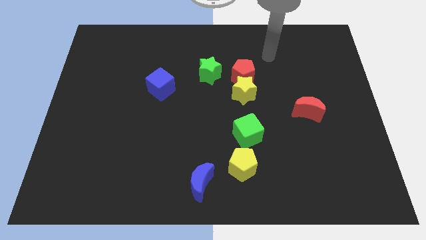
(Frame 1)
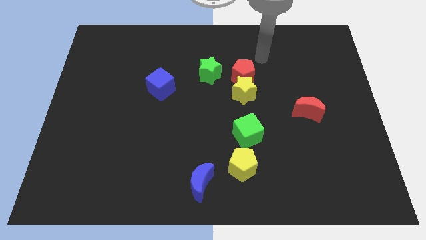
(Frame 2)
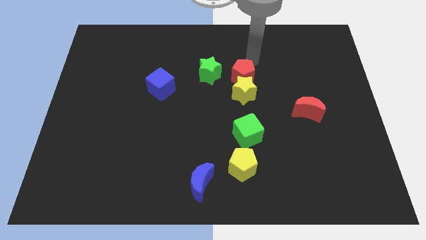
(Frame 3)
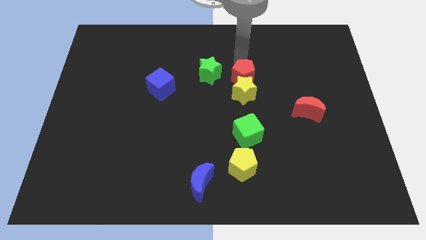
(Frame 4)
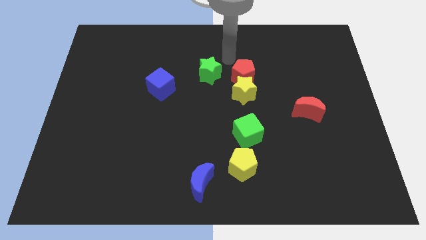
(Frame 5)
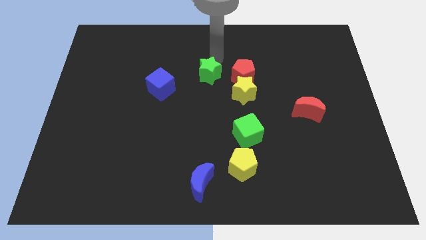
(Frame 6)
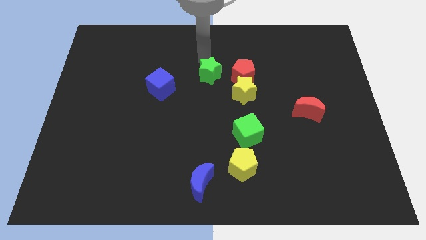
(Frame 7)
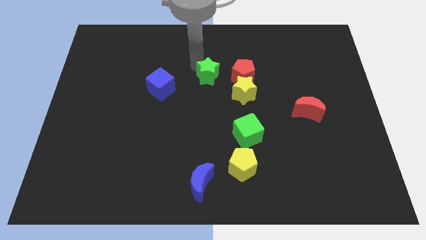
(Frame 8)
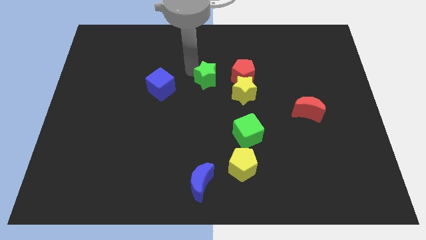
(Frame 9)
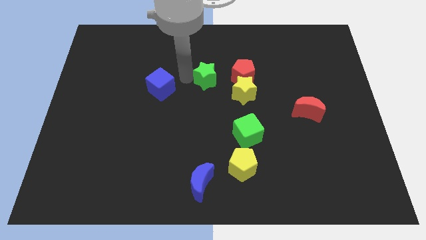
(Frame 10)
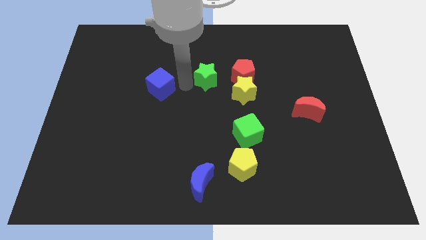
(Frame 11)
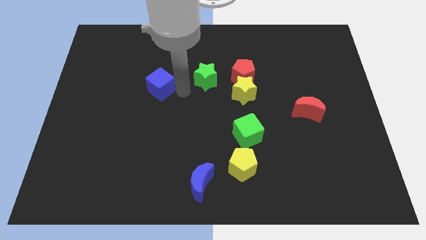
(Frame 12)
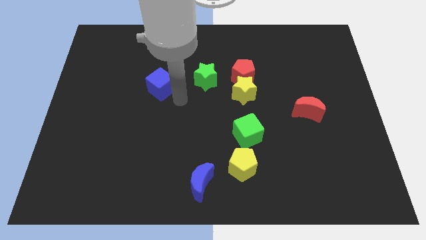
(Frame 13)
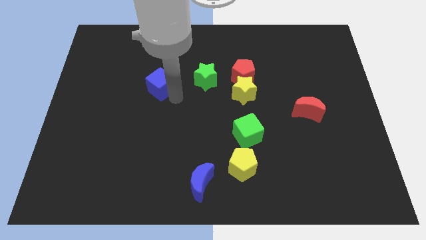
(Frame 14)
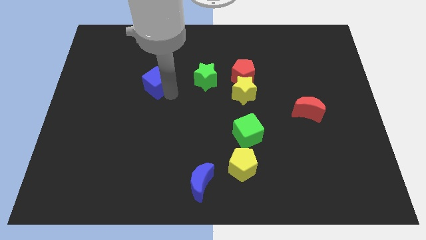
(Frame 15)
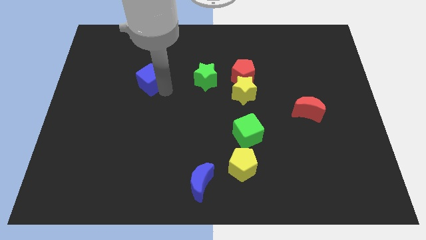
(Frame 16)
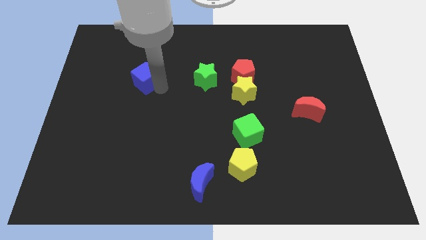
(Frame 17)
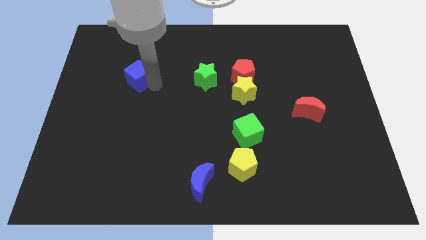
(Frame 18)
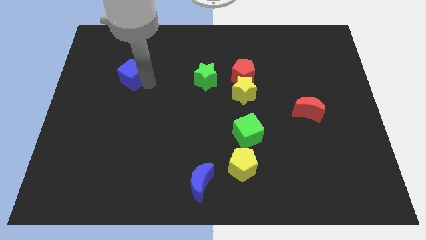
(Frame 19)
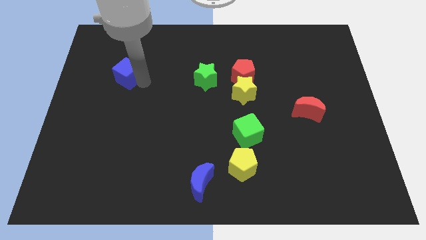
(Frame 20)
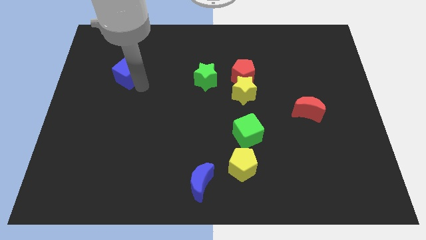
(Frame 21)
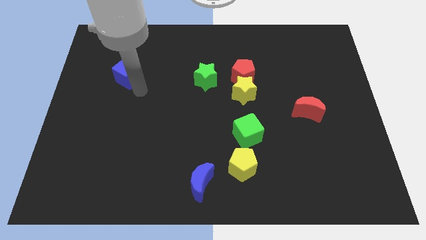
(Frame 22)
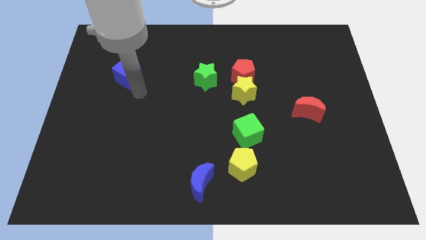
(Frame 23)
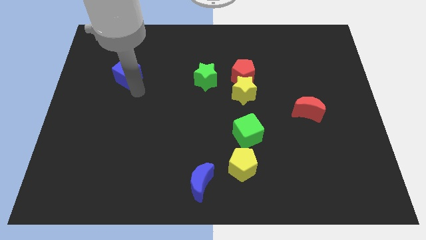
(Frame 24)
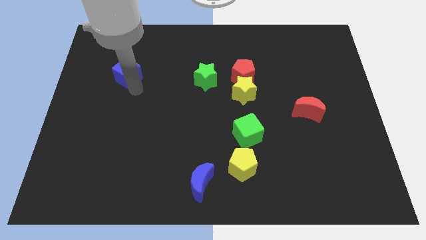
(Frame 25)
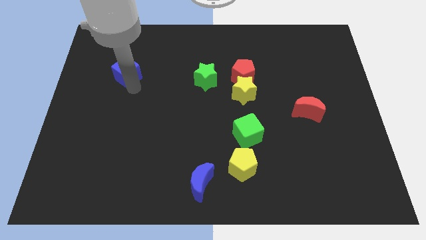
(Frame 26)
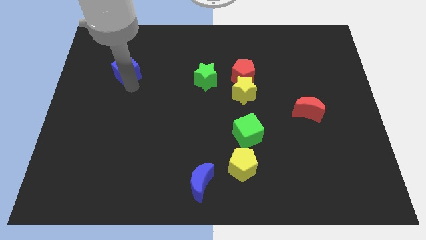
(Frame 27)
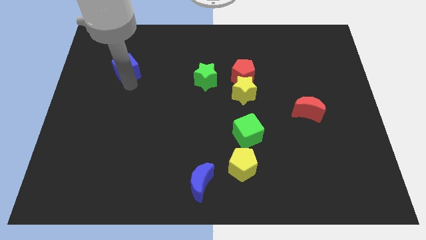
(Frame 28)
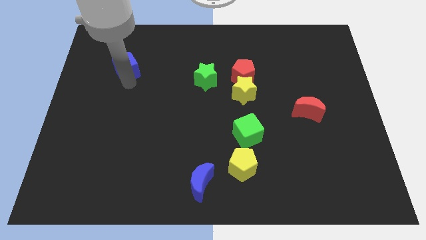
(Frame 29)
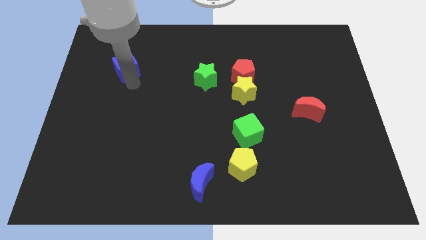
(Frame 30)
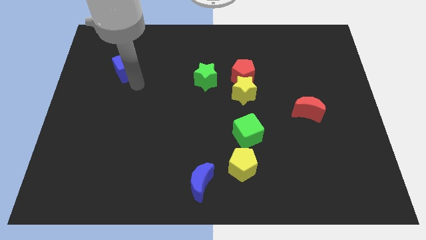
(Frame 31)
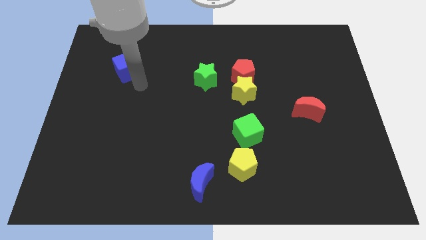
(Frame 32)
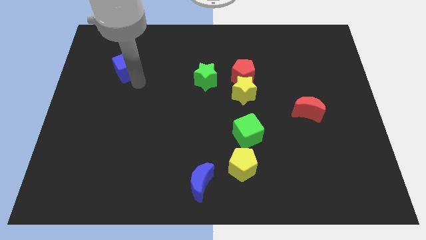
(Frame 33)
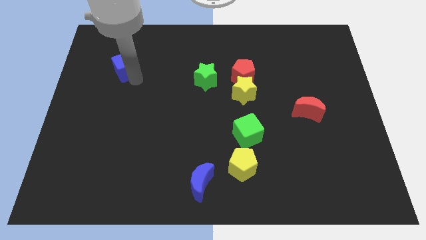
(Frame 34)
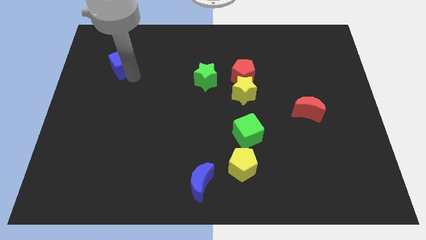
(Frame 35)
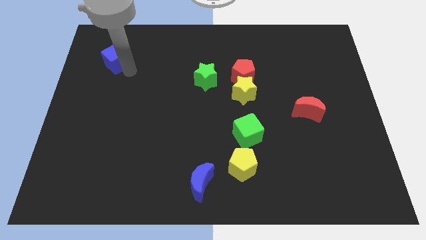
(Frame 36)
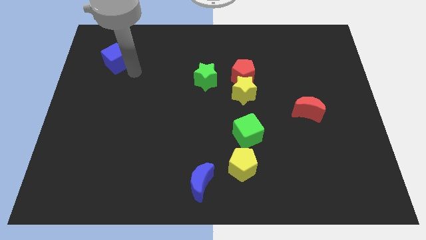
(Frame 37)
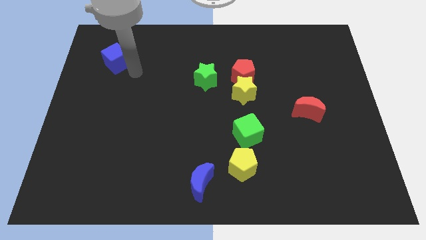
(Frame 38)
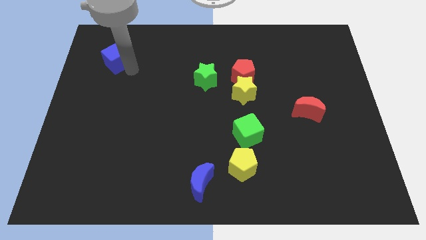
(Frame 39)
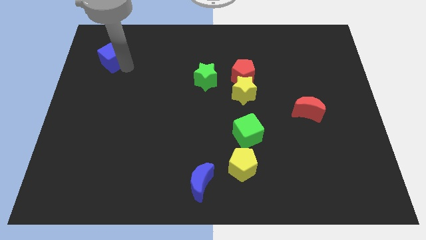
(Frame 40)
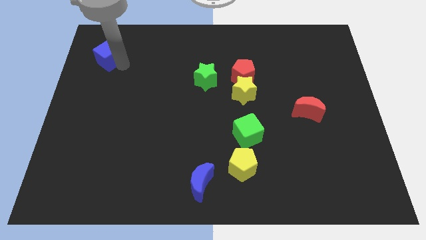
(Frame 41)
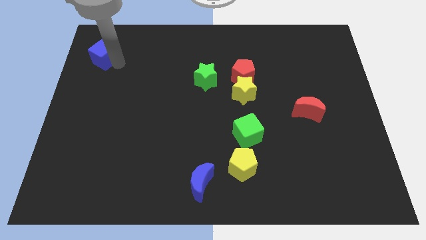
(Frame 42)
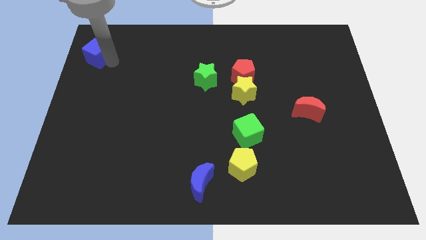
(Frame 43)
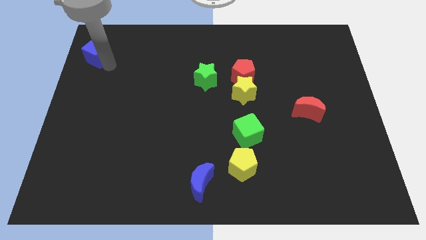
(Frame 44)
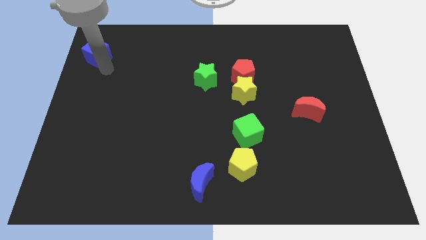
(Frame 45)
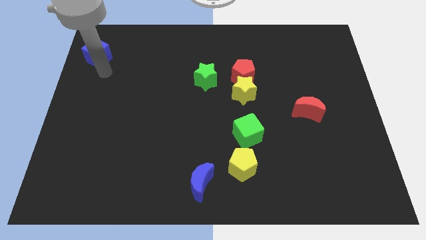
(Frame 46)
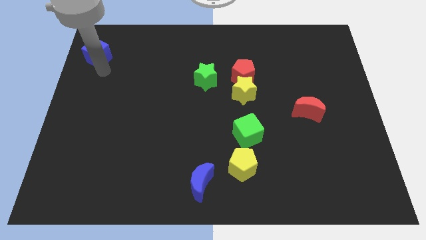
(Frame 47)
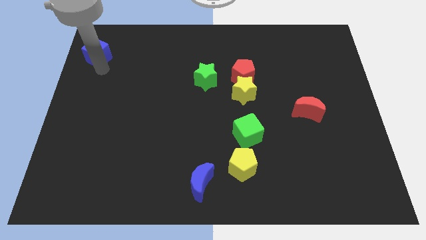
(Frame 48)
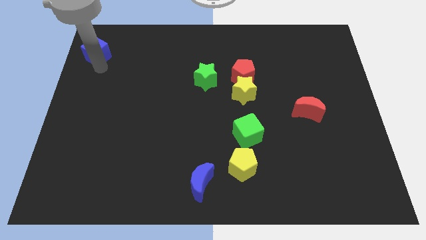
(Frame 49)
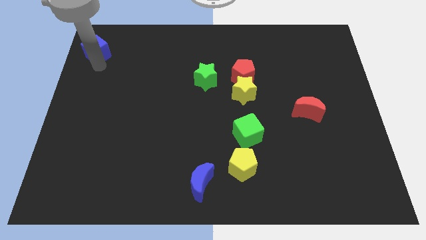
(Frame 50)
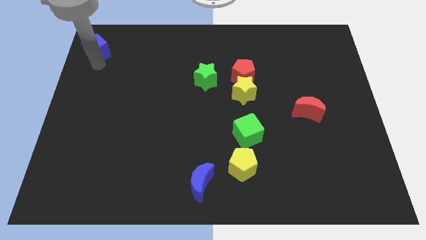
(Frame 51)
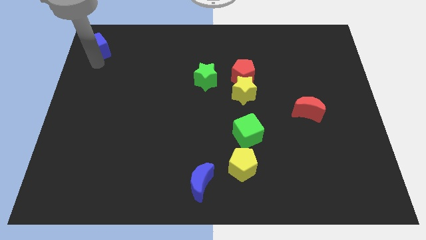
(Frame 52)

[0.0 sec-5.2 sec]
slide the blue cube to the top left corner

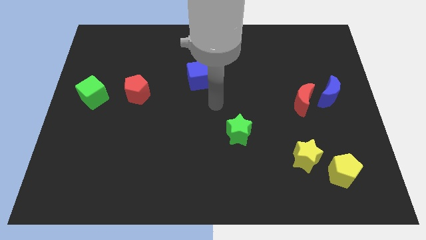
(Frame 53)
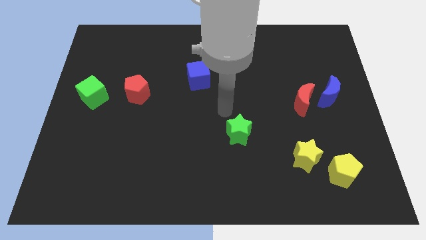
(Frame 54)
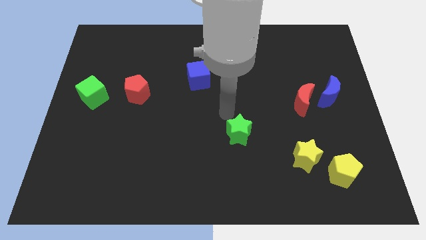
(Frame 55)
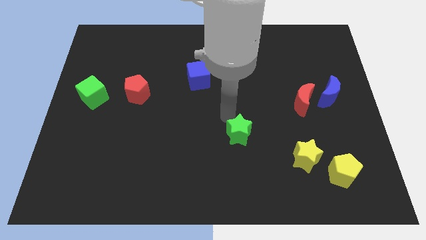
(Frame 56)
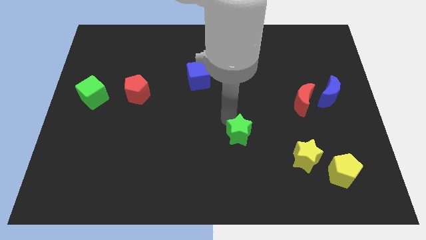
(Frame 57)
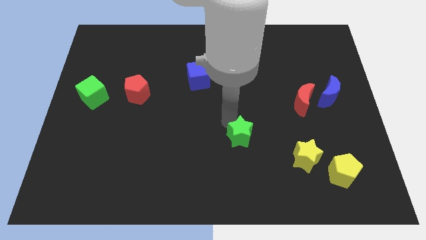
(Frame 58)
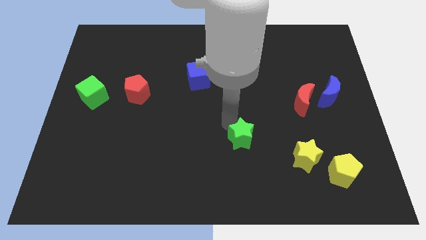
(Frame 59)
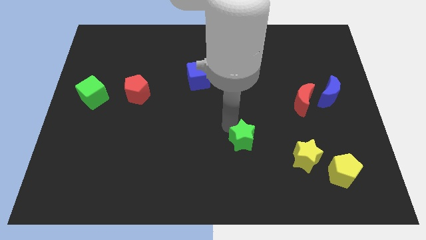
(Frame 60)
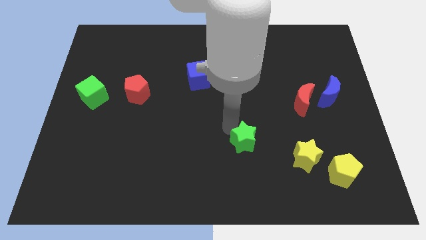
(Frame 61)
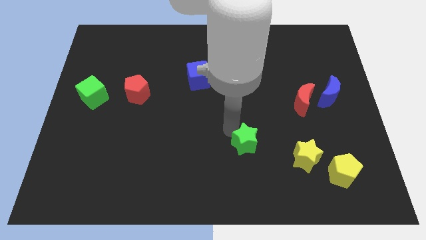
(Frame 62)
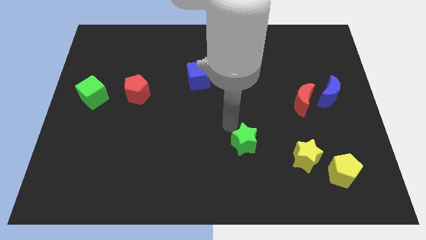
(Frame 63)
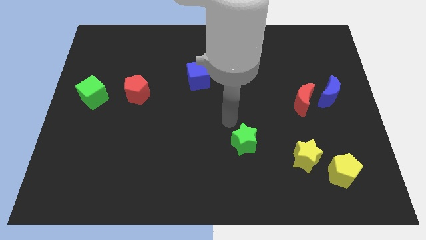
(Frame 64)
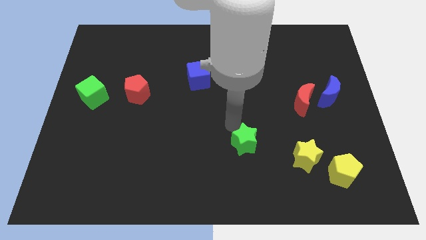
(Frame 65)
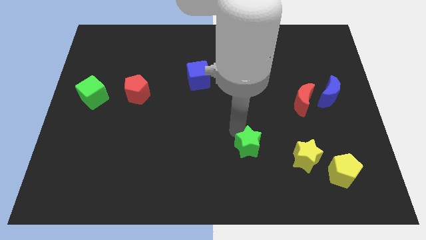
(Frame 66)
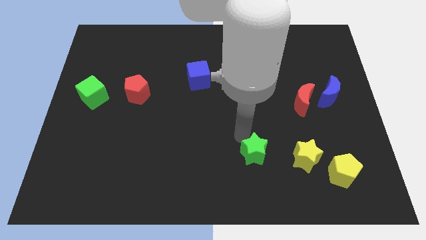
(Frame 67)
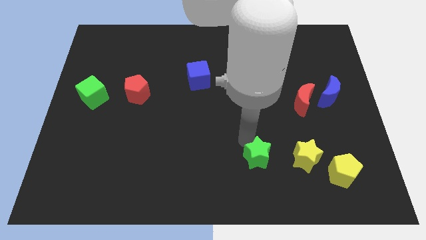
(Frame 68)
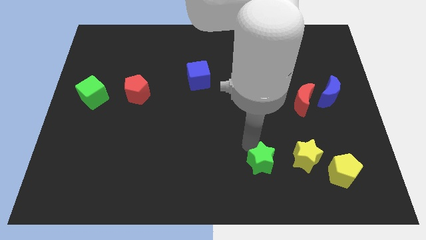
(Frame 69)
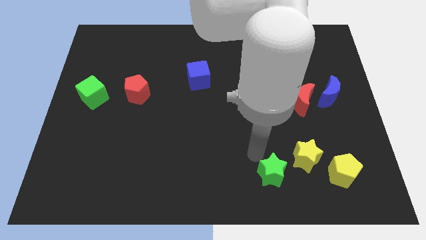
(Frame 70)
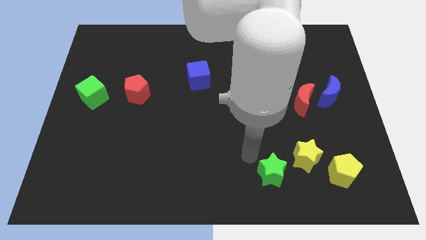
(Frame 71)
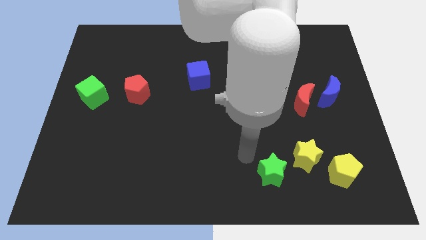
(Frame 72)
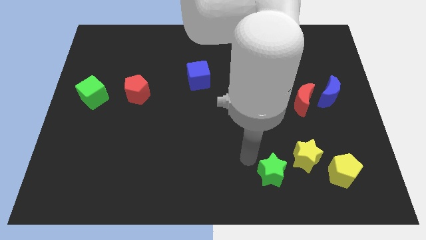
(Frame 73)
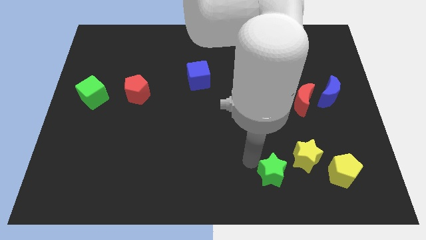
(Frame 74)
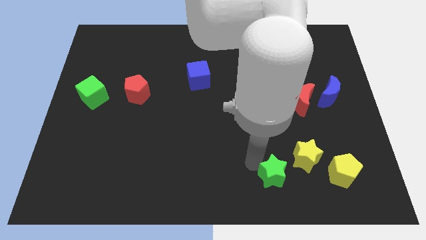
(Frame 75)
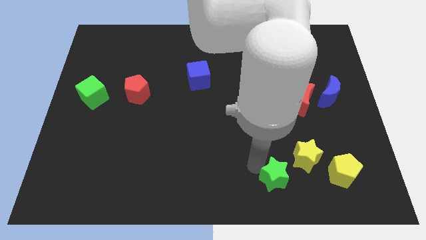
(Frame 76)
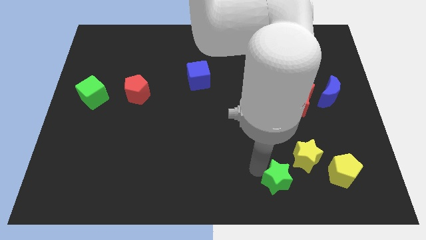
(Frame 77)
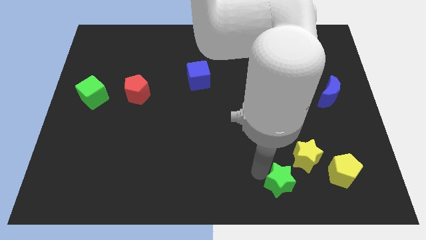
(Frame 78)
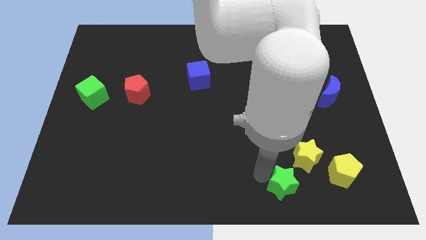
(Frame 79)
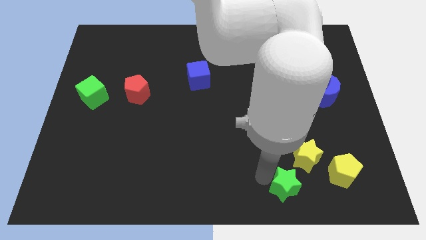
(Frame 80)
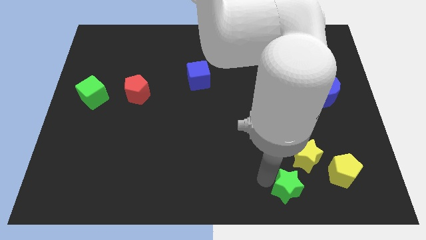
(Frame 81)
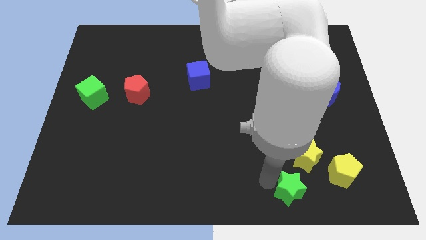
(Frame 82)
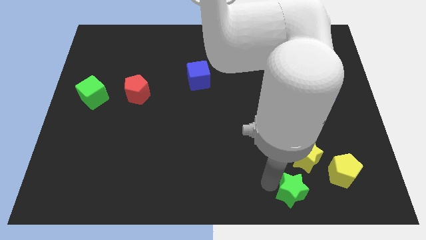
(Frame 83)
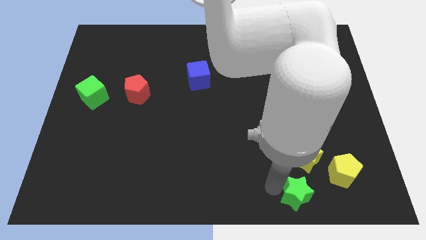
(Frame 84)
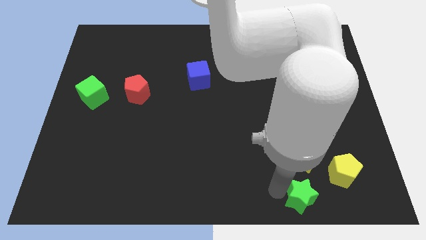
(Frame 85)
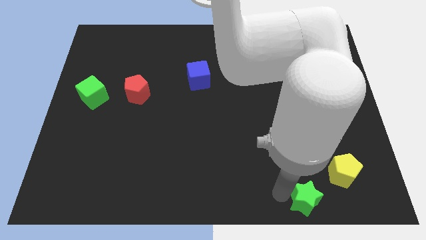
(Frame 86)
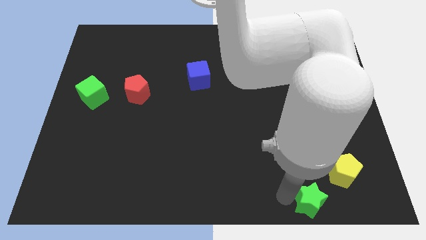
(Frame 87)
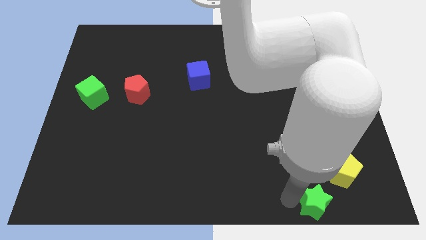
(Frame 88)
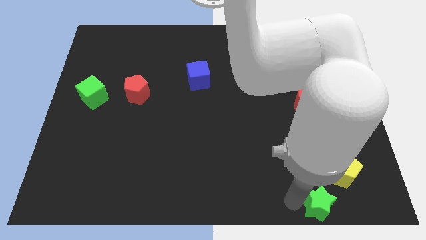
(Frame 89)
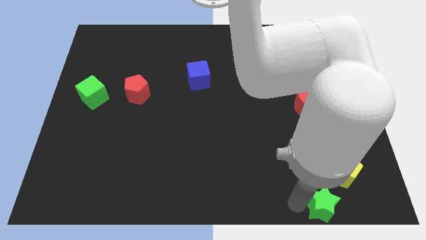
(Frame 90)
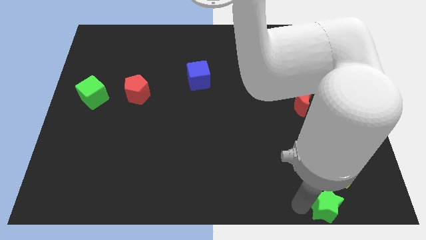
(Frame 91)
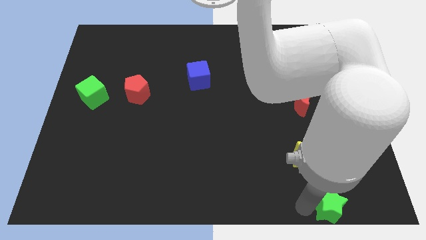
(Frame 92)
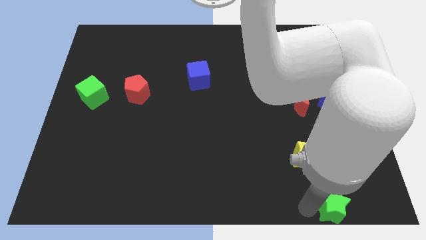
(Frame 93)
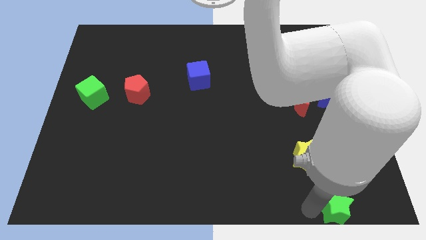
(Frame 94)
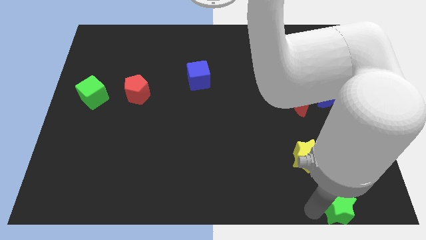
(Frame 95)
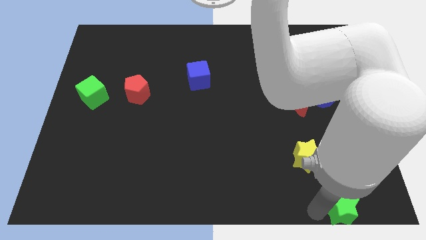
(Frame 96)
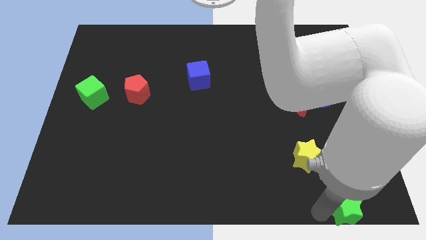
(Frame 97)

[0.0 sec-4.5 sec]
slide the green star to the bottom right corner
